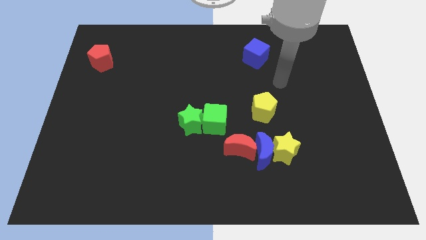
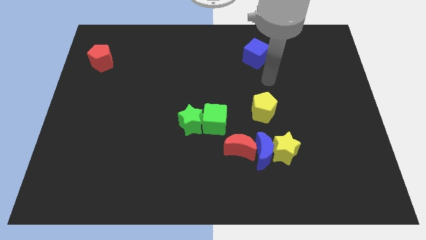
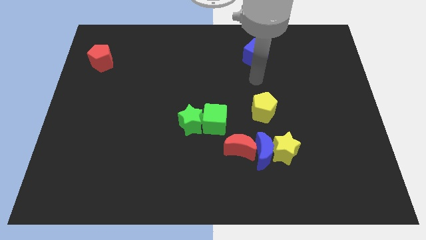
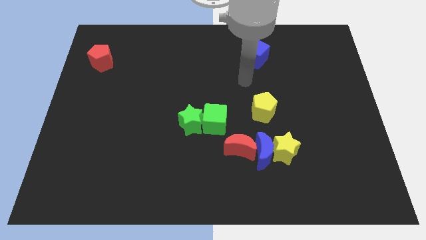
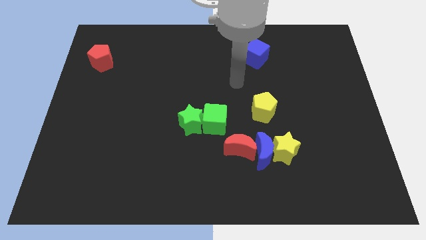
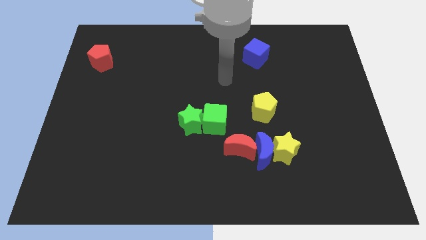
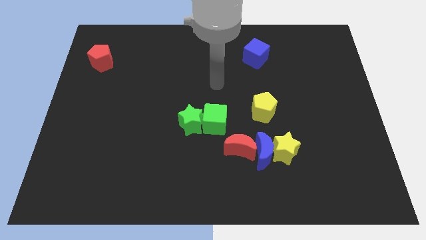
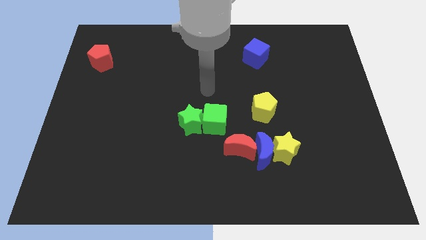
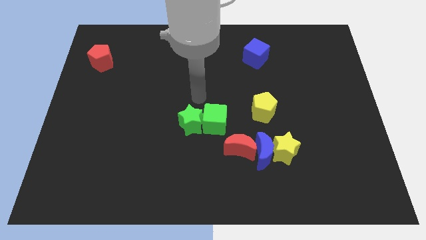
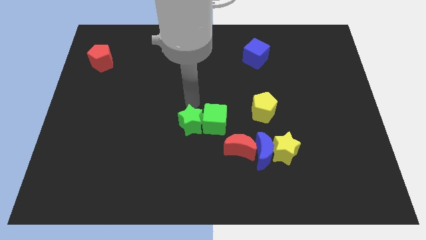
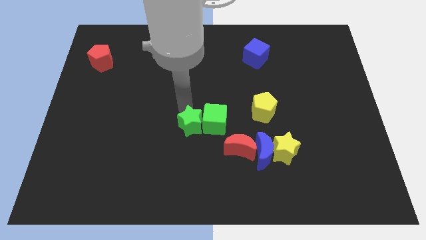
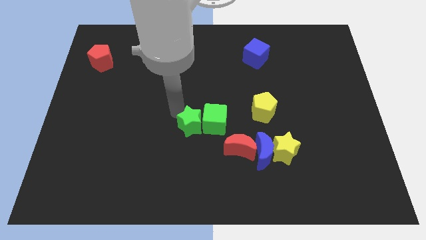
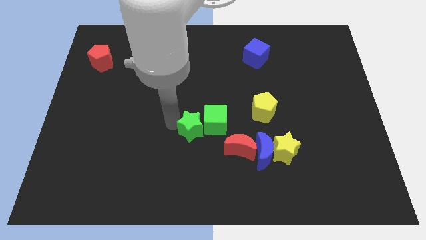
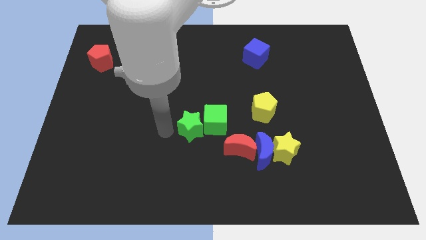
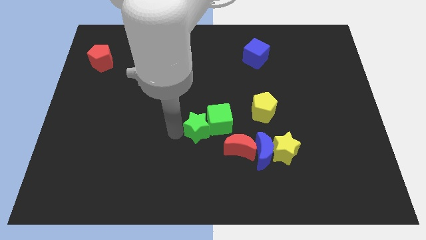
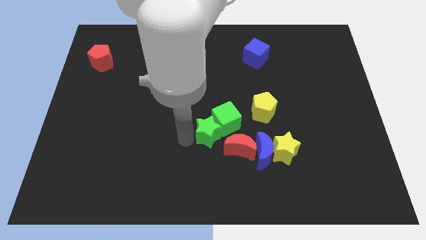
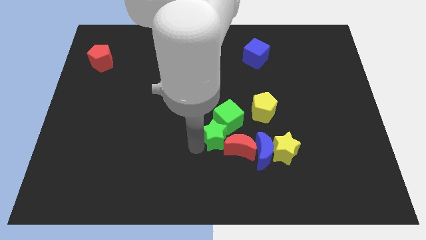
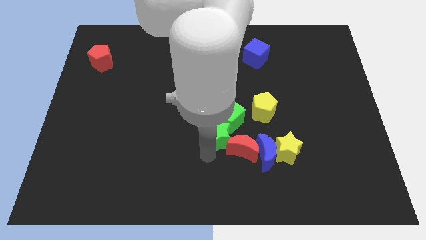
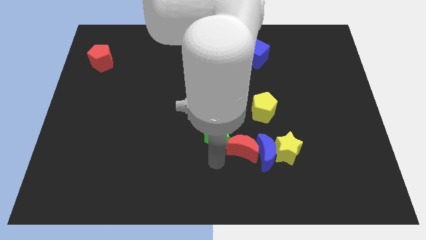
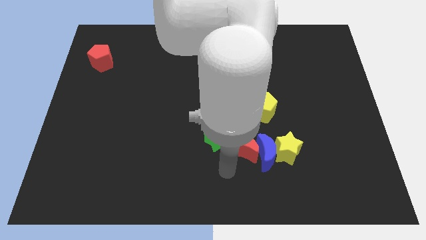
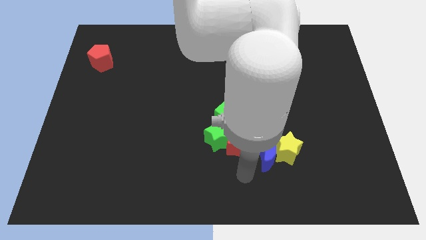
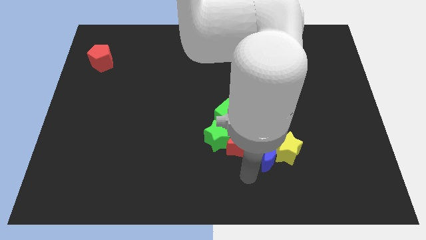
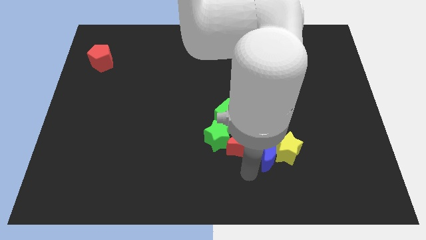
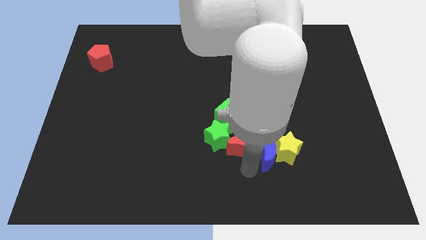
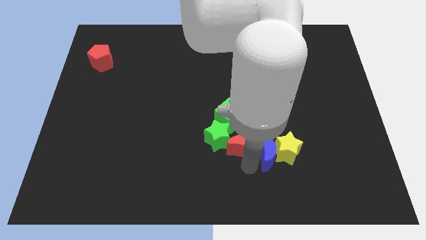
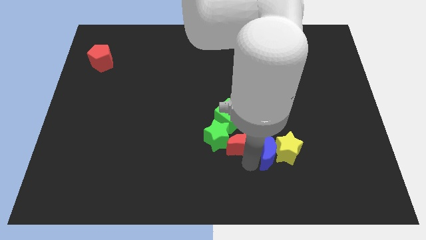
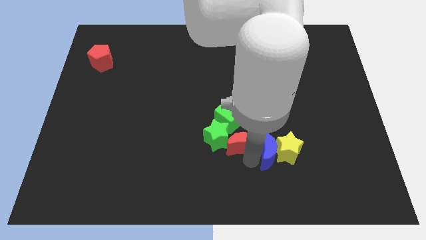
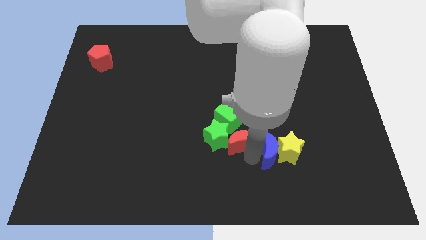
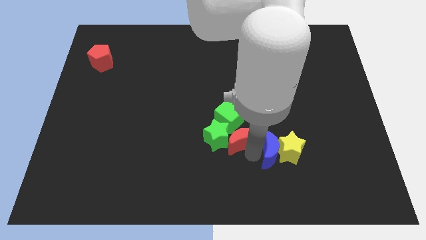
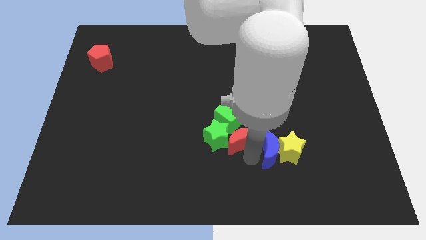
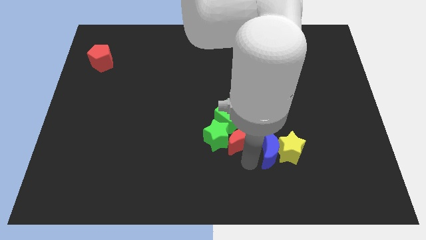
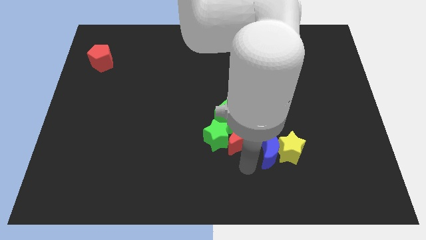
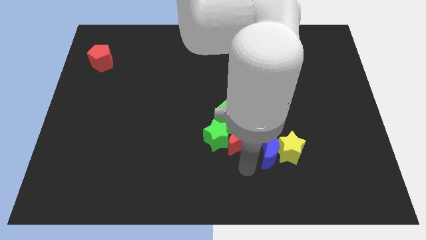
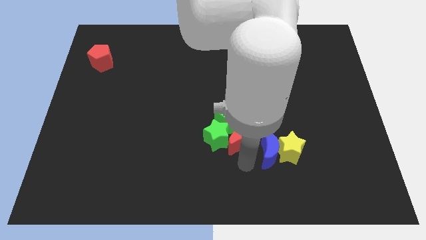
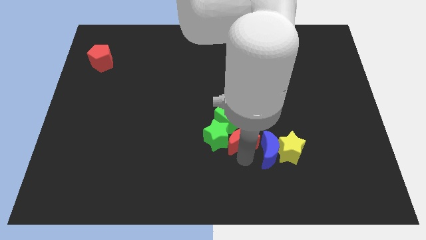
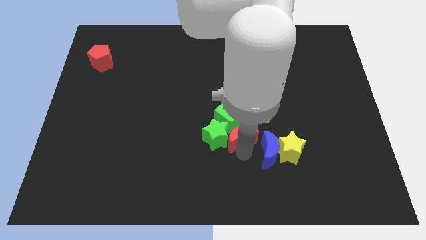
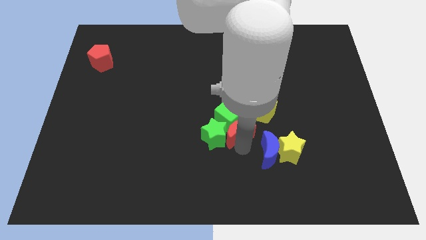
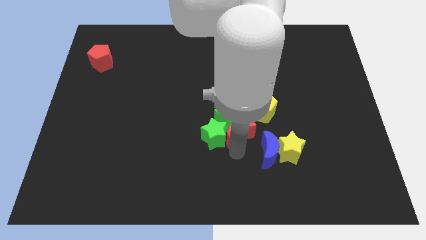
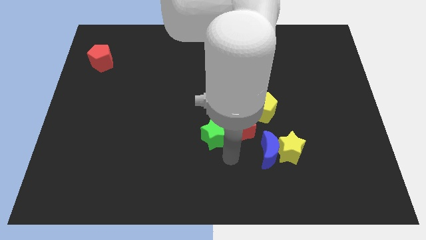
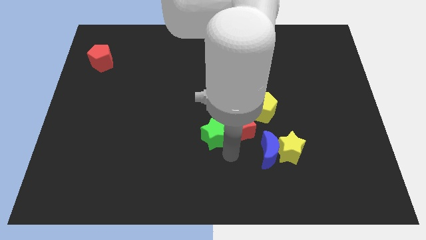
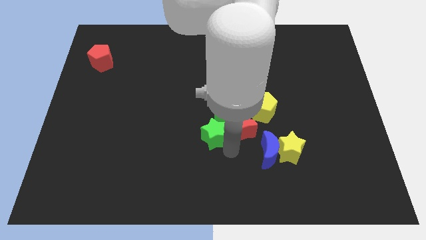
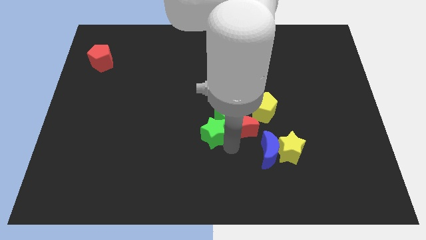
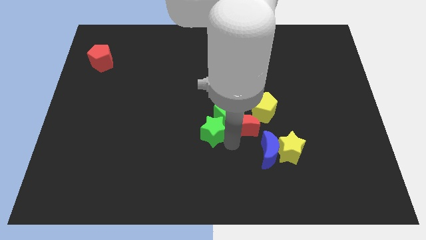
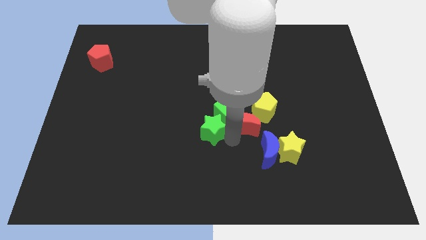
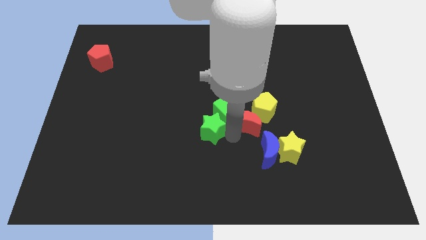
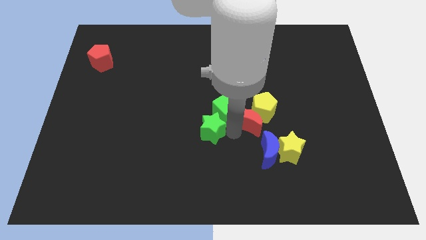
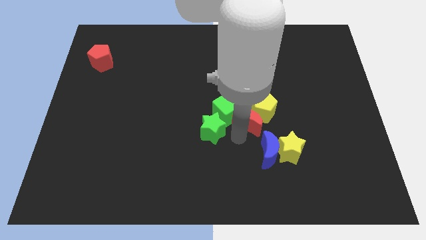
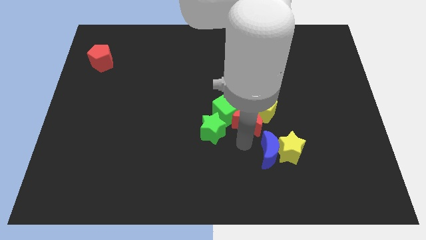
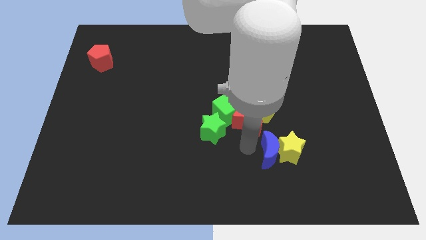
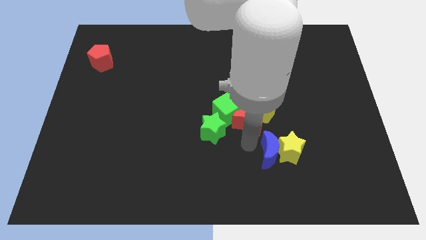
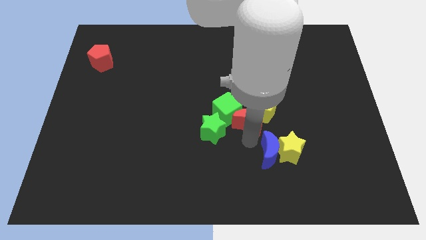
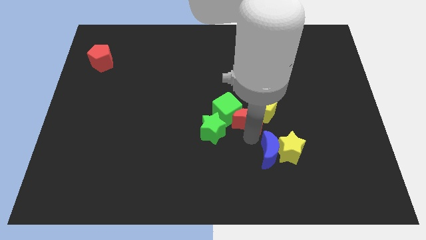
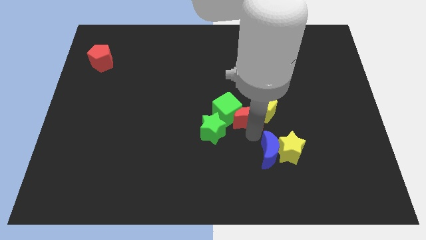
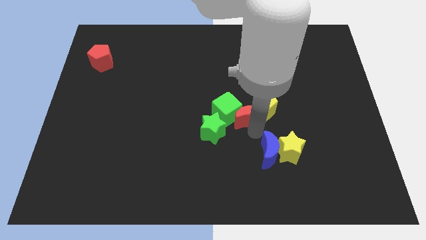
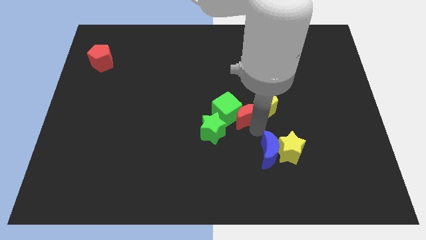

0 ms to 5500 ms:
move the red moon to the top right side of the green cube

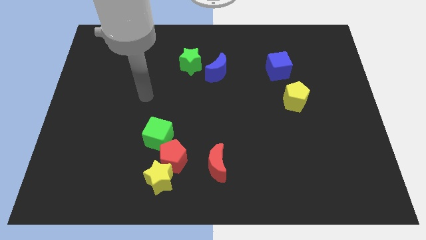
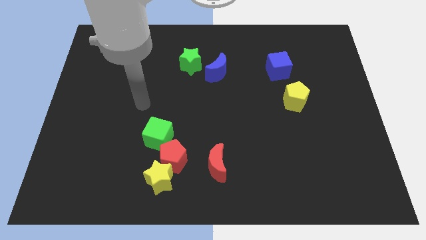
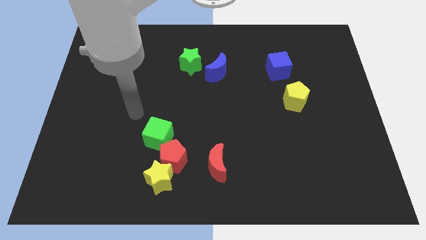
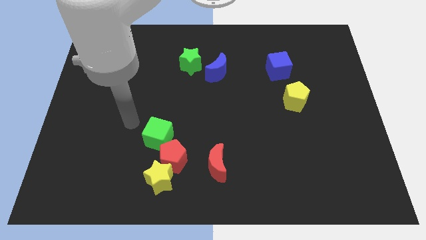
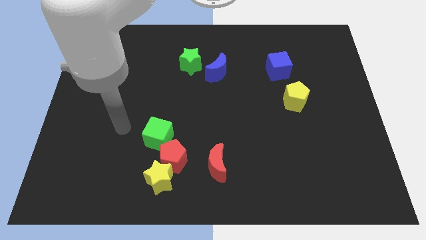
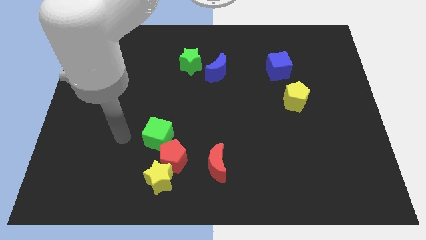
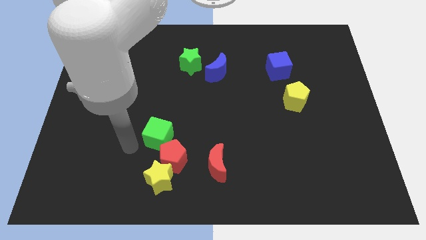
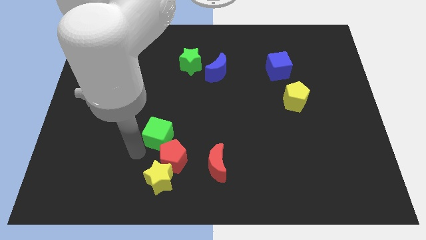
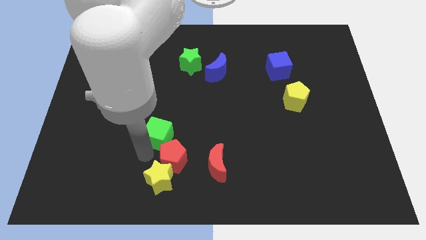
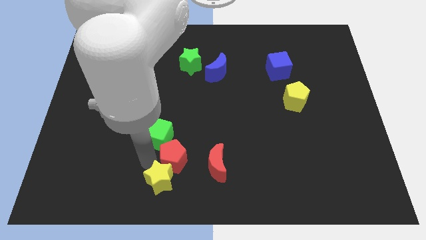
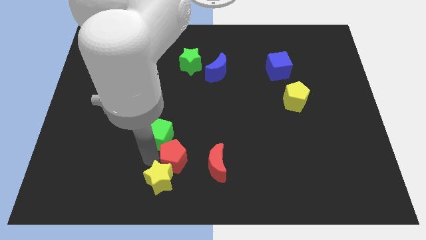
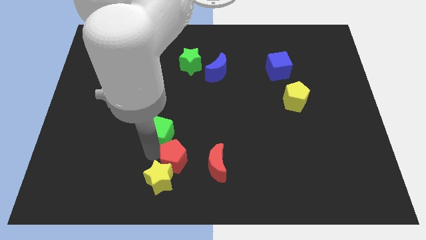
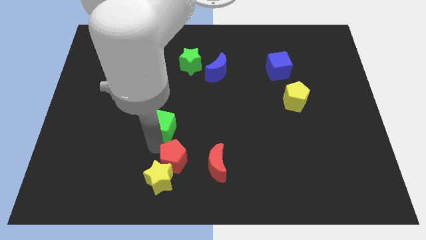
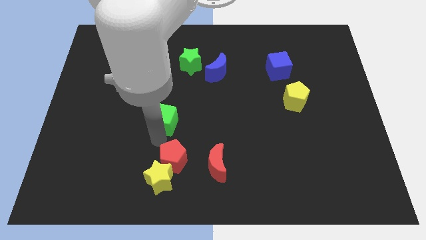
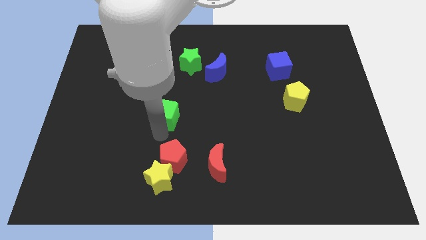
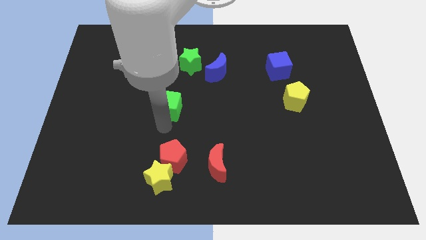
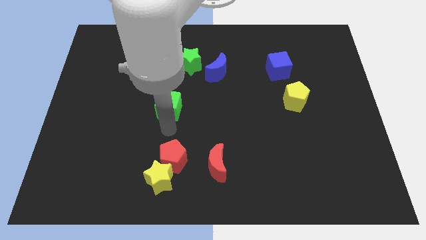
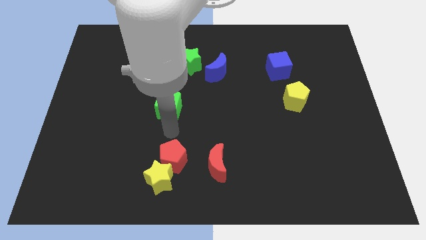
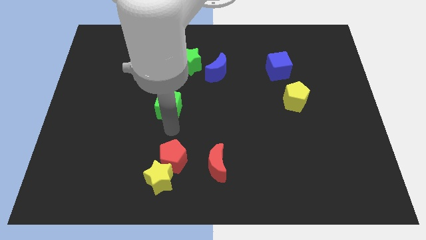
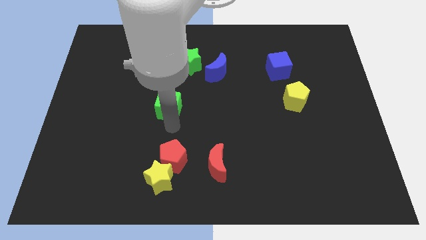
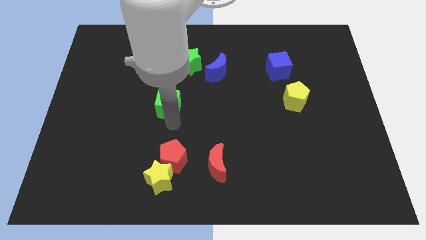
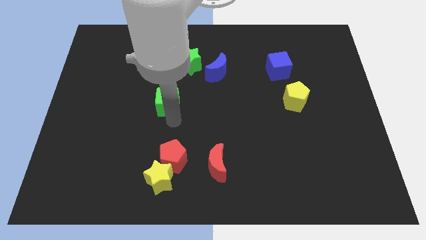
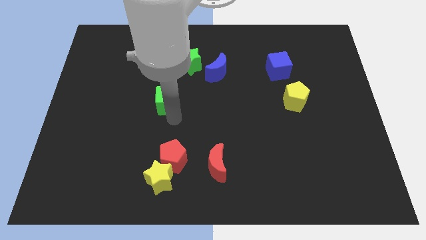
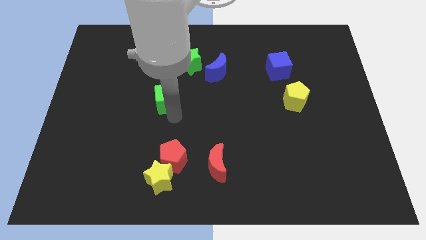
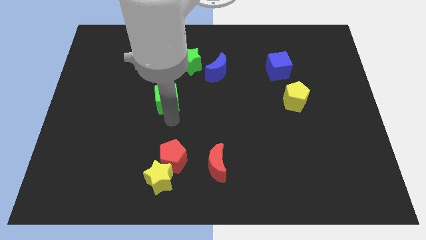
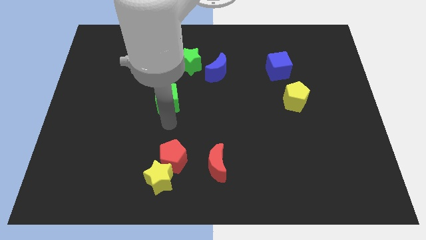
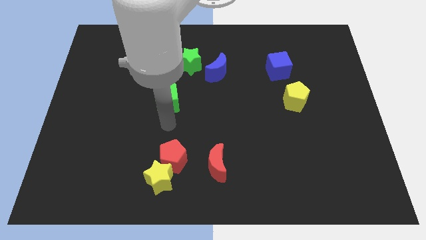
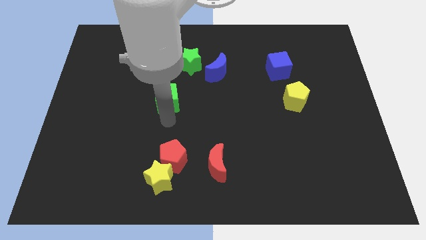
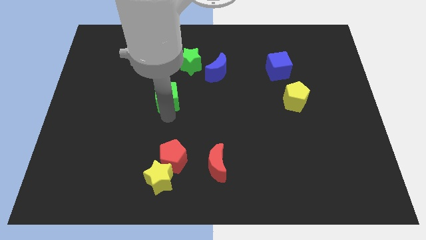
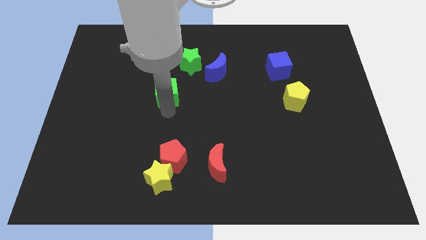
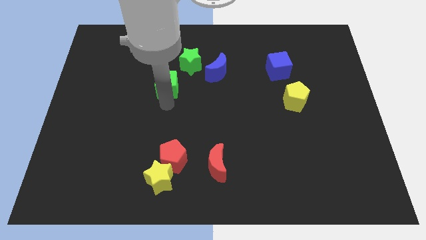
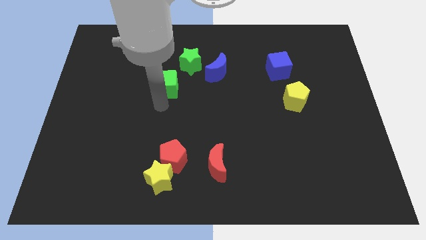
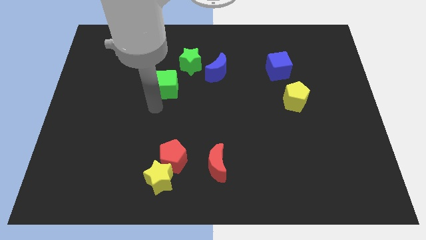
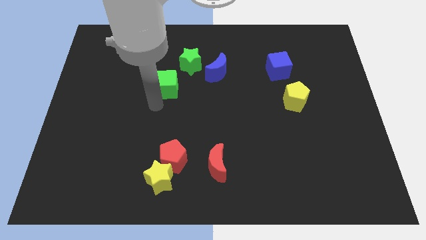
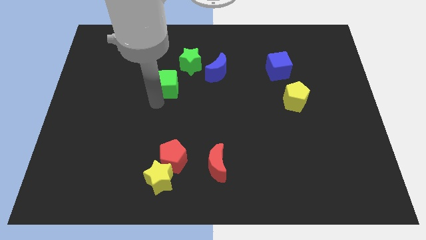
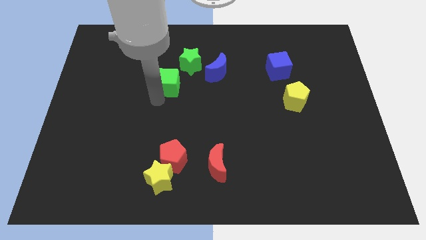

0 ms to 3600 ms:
push the green cube just left of the blue moon
